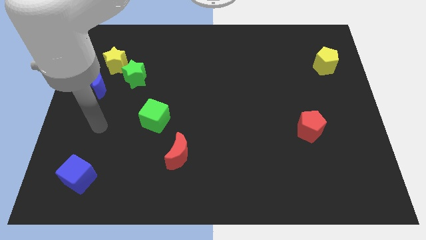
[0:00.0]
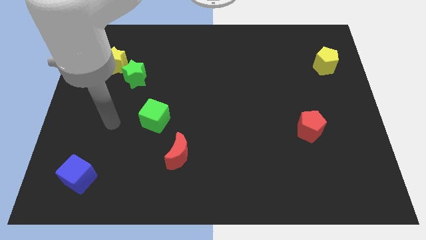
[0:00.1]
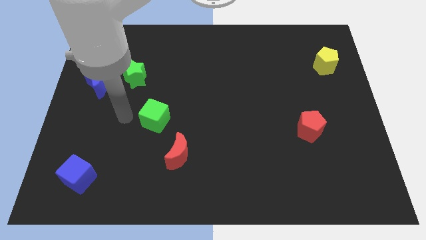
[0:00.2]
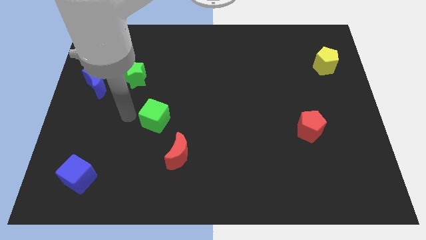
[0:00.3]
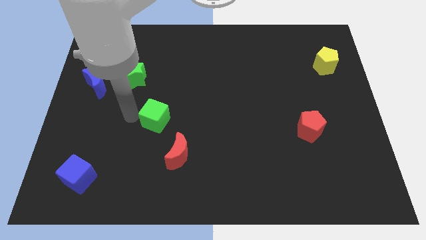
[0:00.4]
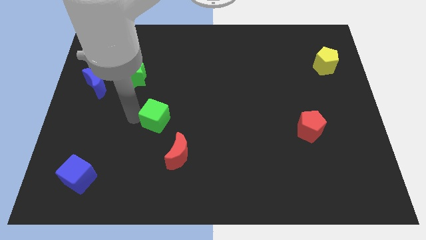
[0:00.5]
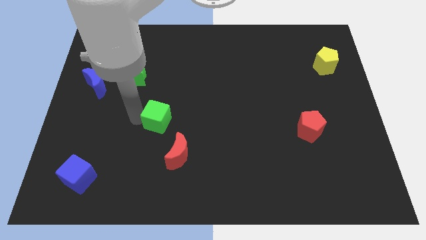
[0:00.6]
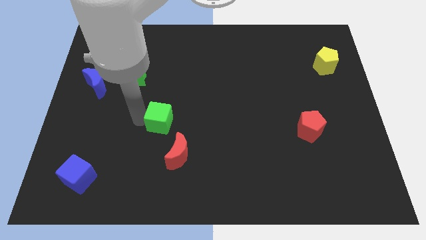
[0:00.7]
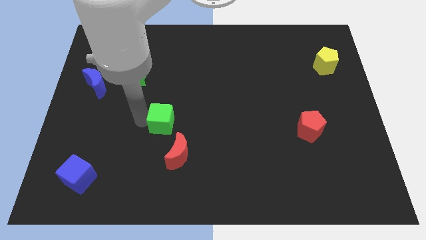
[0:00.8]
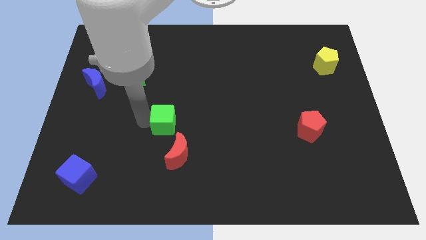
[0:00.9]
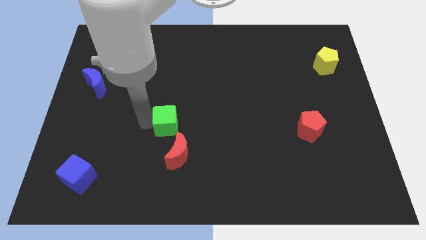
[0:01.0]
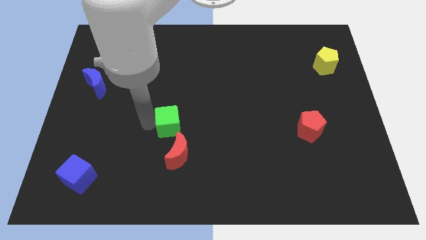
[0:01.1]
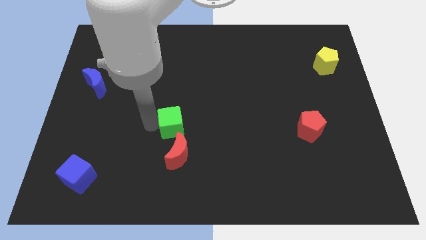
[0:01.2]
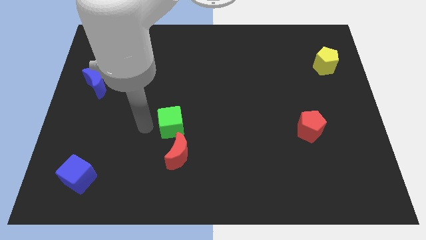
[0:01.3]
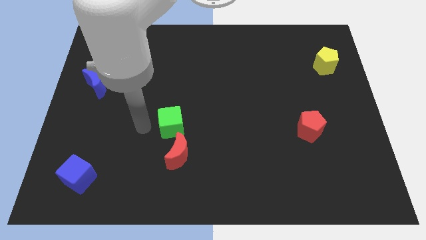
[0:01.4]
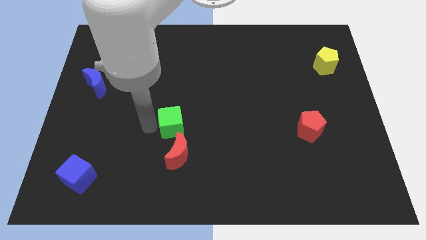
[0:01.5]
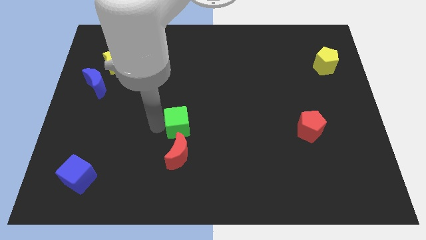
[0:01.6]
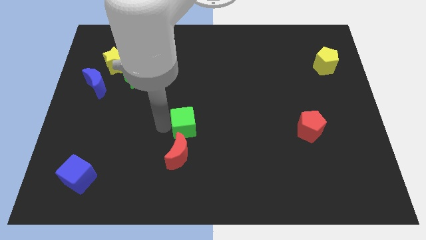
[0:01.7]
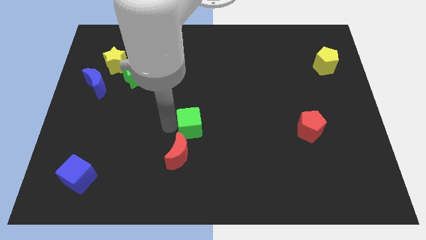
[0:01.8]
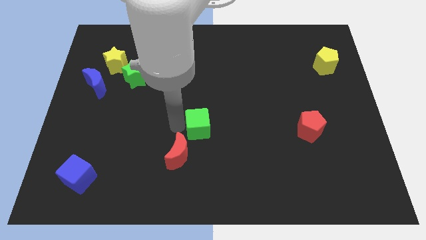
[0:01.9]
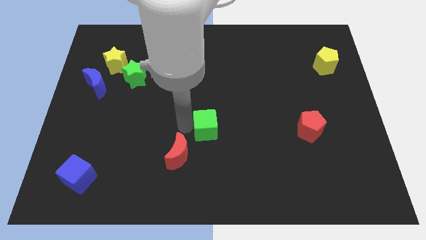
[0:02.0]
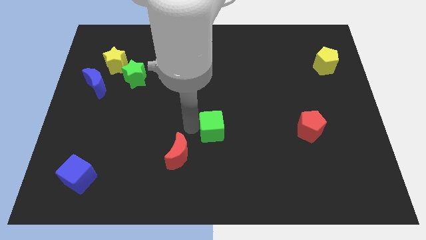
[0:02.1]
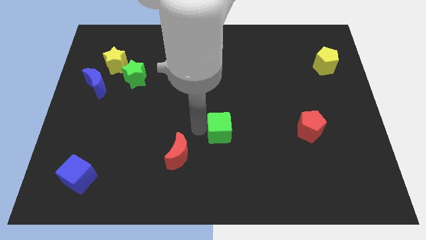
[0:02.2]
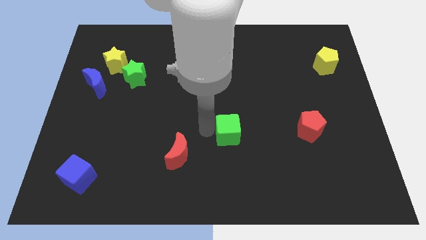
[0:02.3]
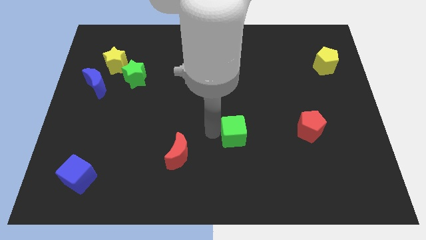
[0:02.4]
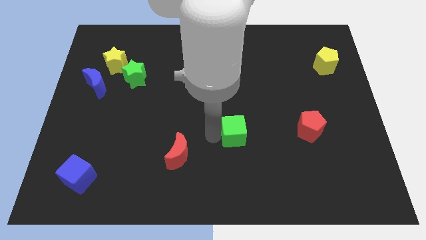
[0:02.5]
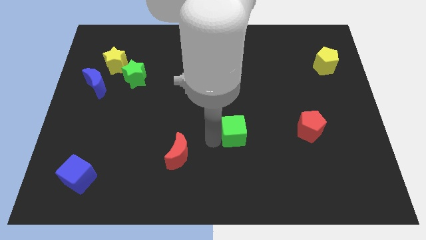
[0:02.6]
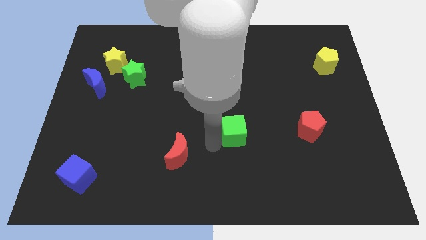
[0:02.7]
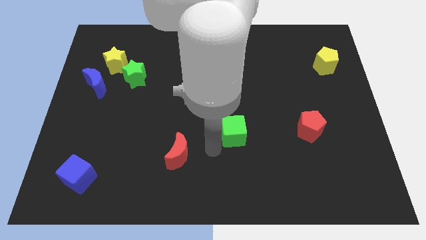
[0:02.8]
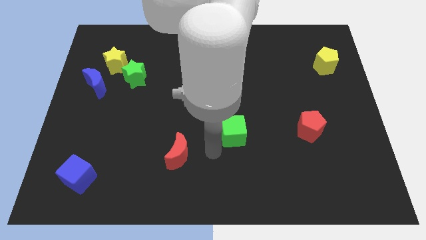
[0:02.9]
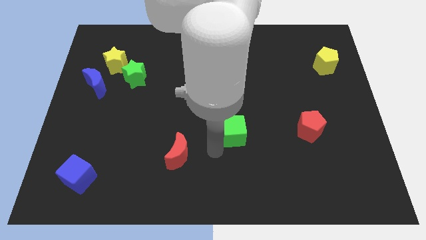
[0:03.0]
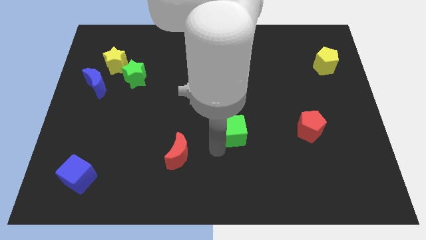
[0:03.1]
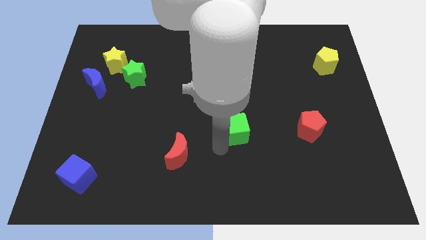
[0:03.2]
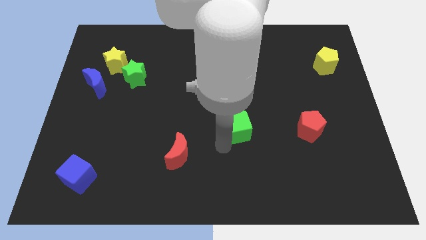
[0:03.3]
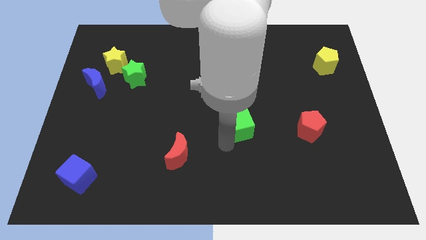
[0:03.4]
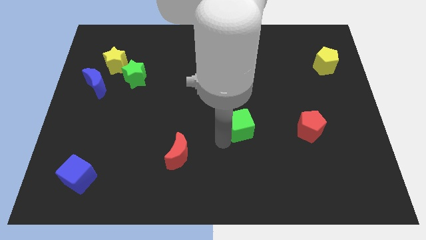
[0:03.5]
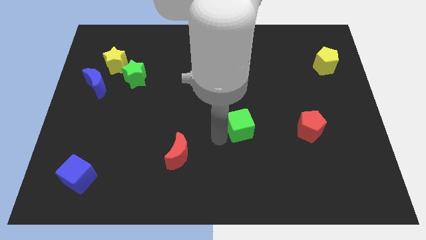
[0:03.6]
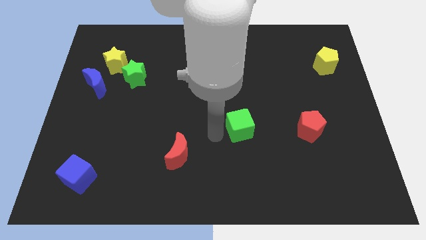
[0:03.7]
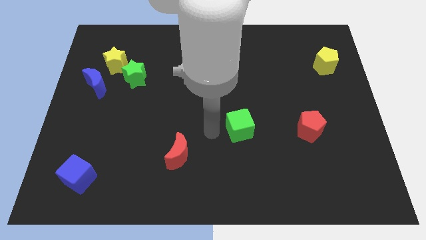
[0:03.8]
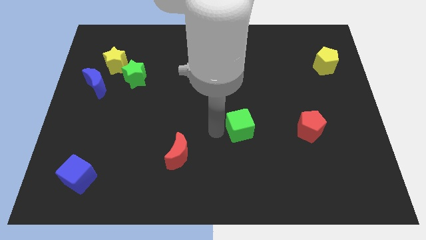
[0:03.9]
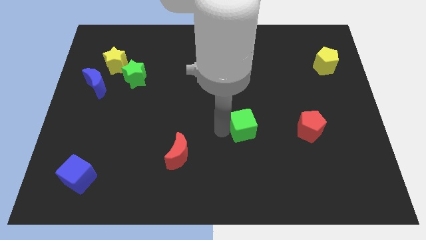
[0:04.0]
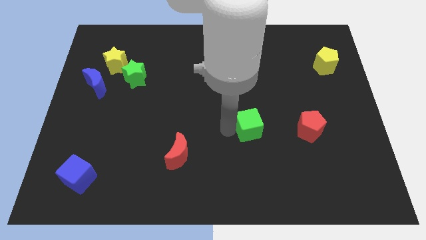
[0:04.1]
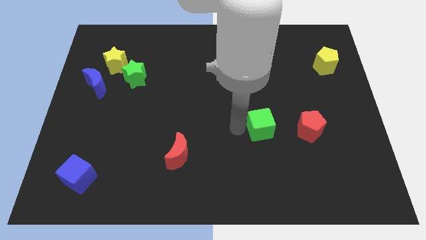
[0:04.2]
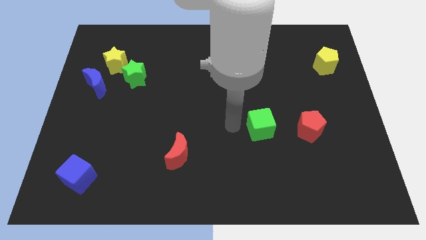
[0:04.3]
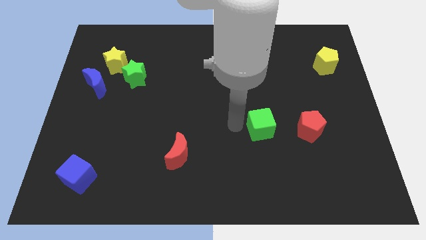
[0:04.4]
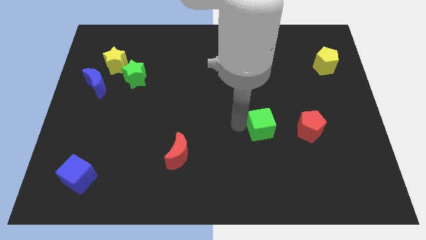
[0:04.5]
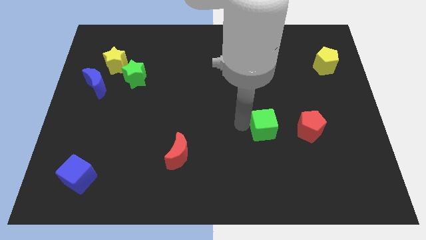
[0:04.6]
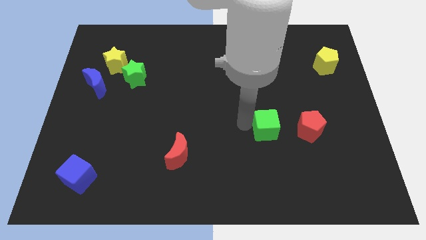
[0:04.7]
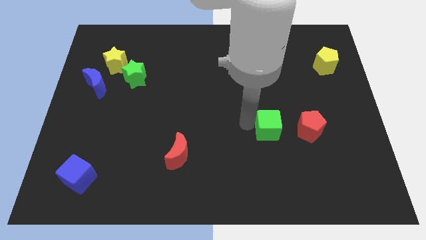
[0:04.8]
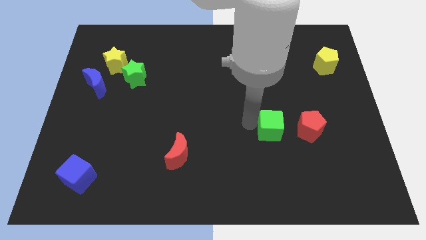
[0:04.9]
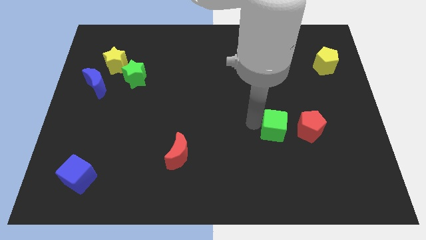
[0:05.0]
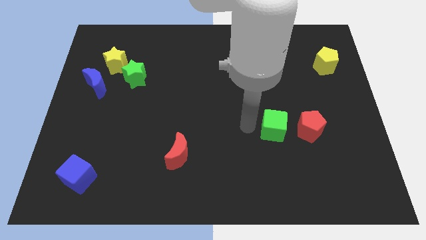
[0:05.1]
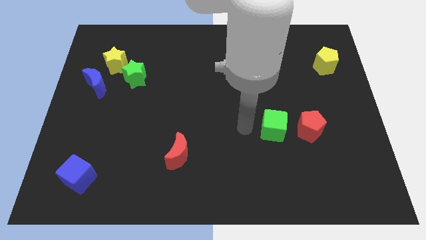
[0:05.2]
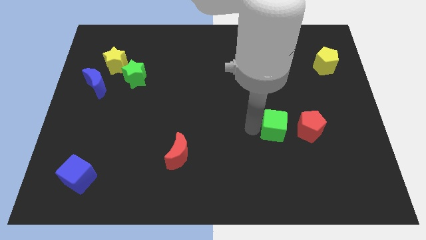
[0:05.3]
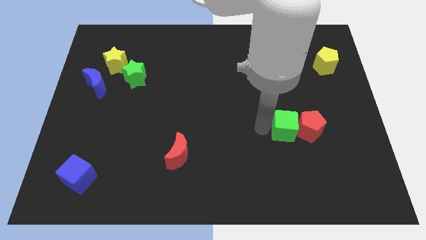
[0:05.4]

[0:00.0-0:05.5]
put the green cube to the red pentagon

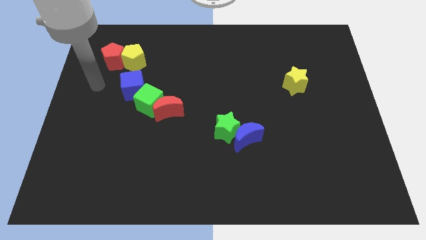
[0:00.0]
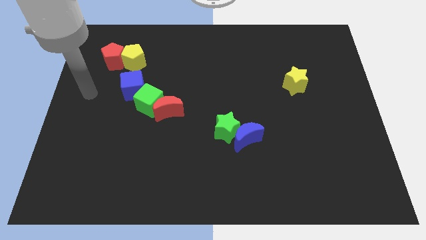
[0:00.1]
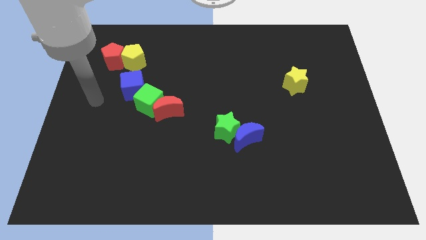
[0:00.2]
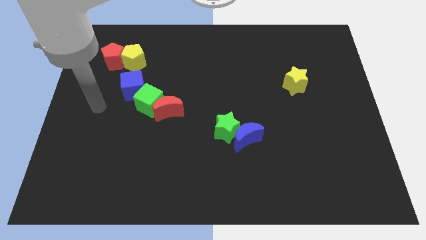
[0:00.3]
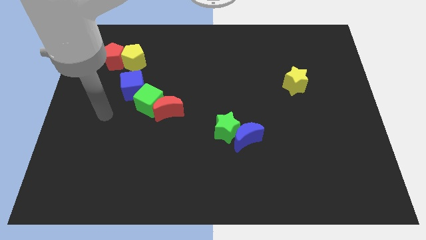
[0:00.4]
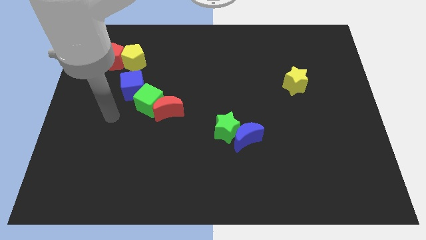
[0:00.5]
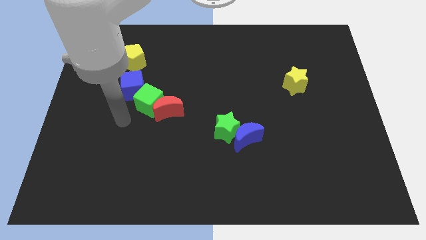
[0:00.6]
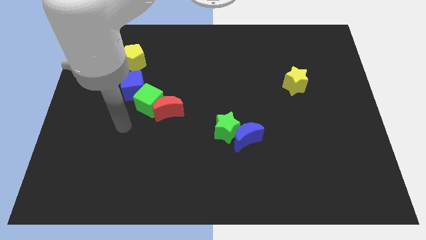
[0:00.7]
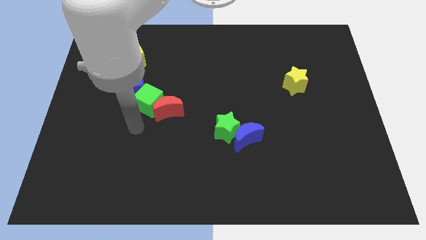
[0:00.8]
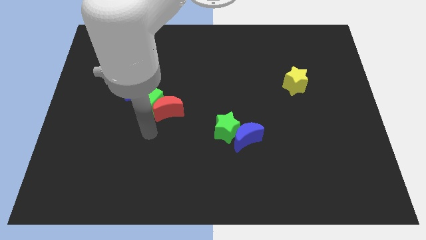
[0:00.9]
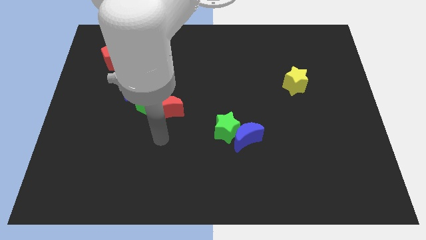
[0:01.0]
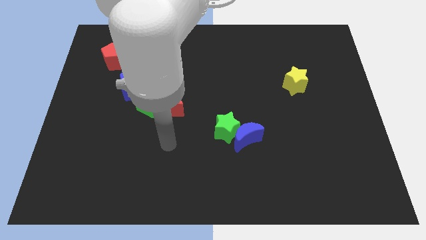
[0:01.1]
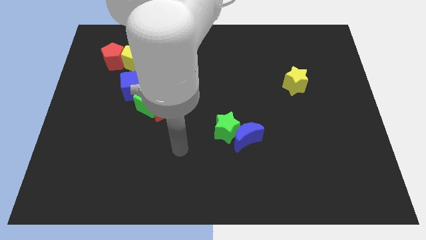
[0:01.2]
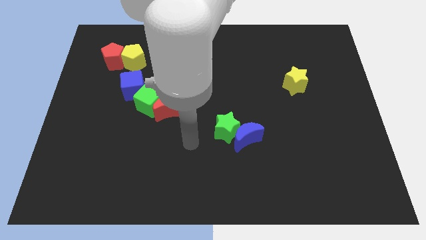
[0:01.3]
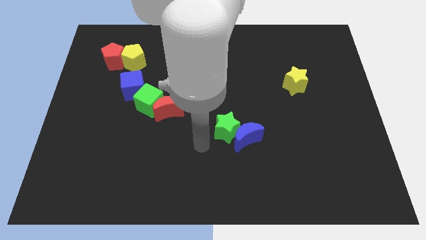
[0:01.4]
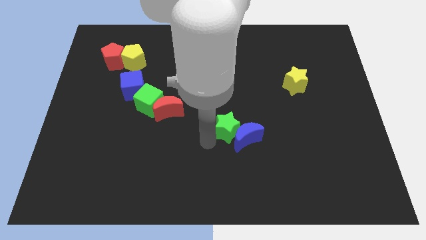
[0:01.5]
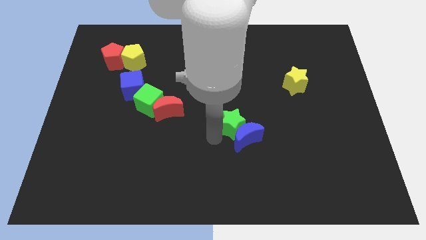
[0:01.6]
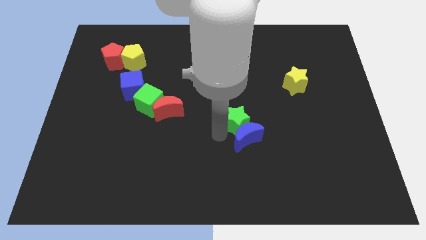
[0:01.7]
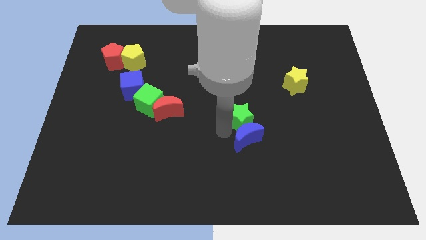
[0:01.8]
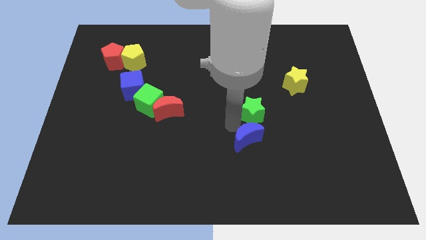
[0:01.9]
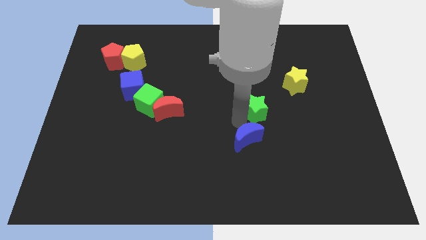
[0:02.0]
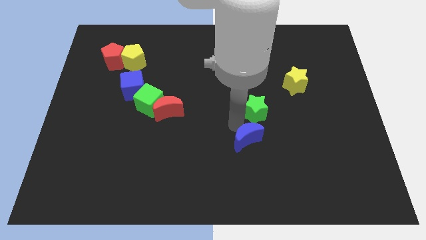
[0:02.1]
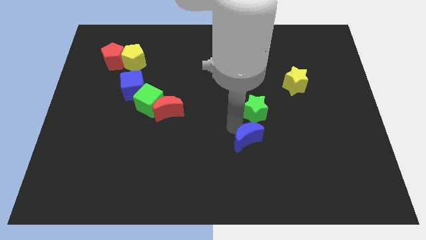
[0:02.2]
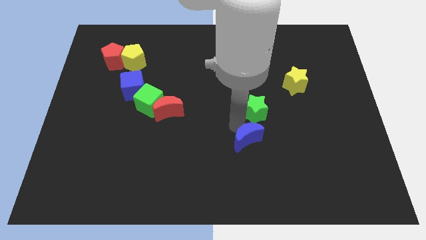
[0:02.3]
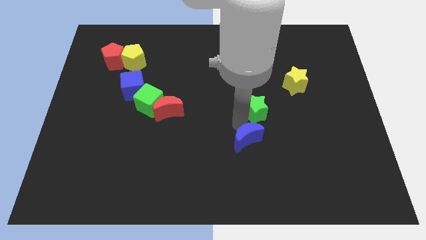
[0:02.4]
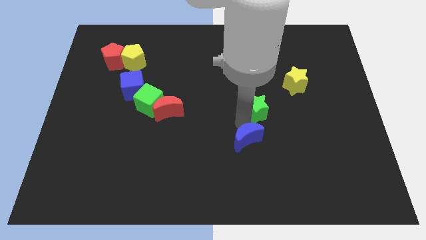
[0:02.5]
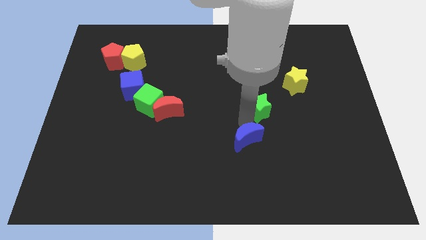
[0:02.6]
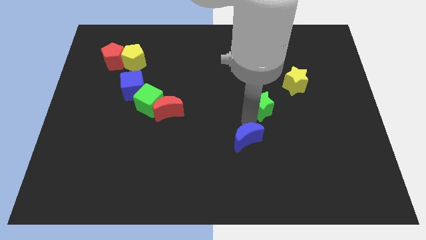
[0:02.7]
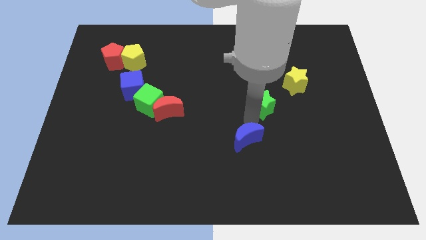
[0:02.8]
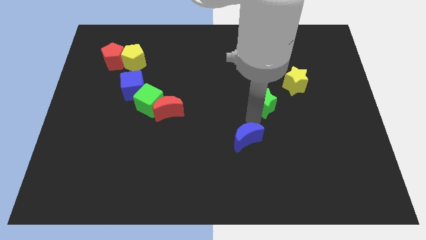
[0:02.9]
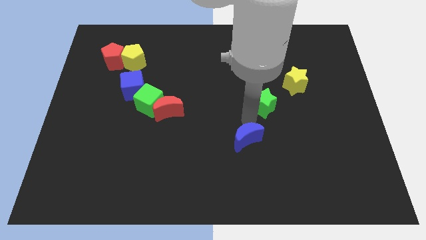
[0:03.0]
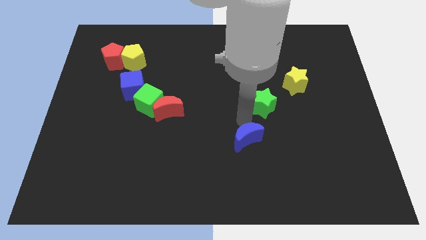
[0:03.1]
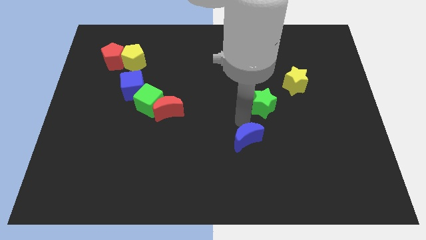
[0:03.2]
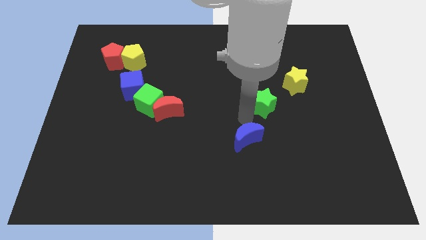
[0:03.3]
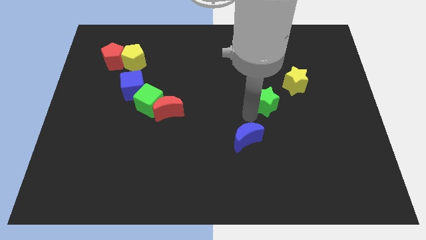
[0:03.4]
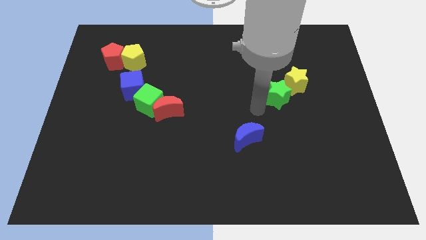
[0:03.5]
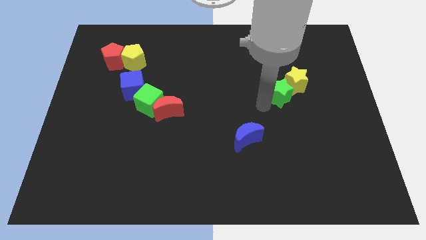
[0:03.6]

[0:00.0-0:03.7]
slide the green star close to the yellow star
